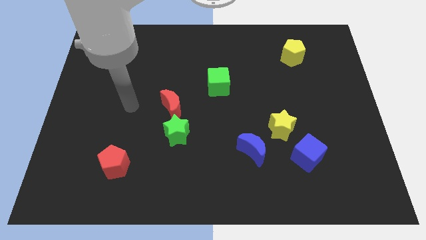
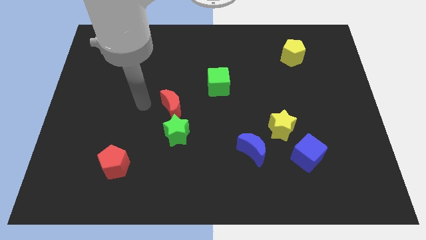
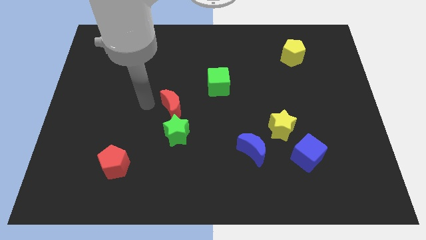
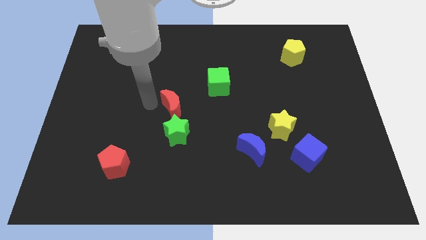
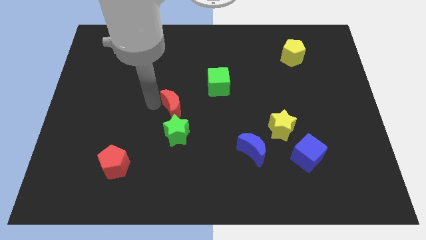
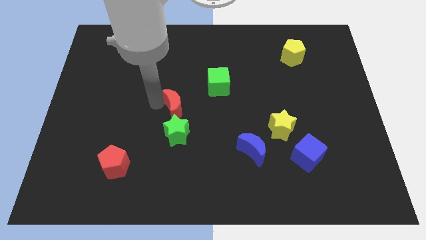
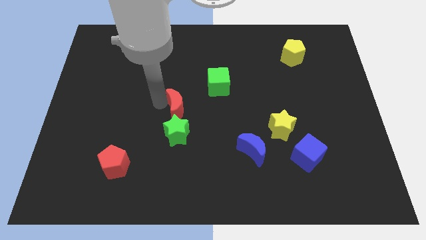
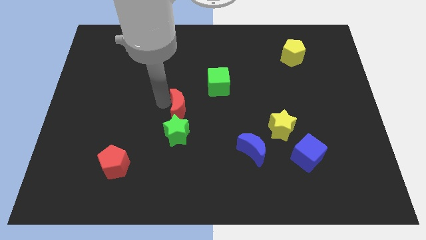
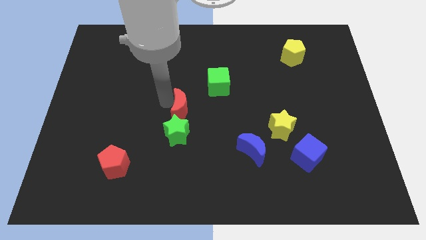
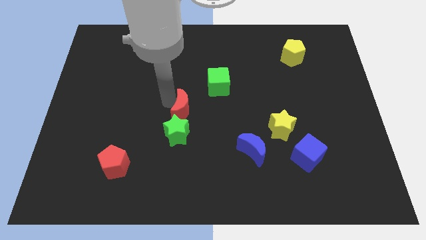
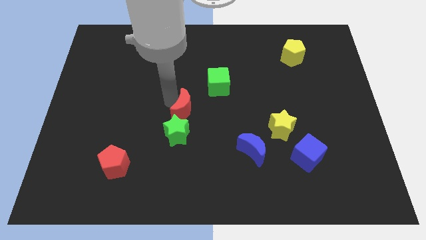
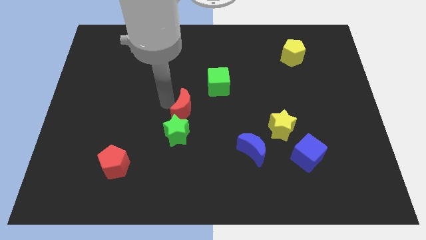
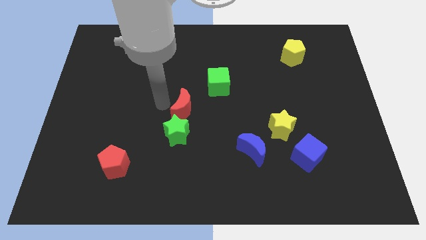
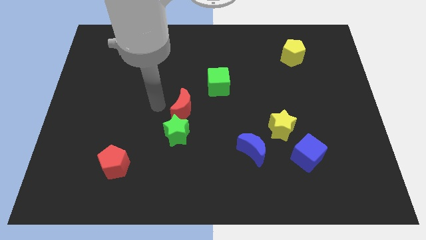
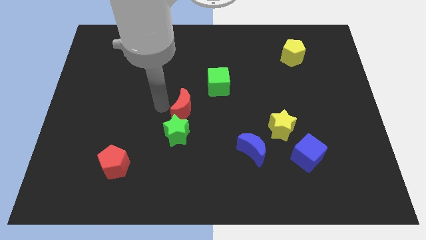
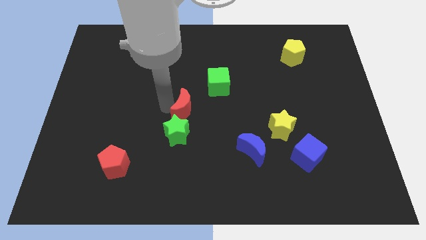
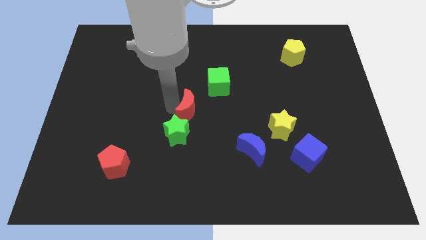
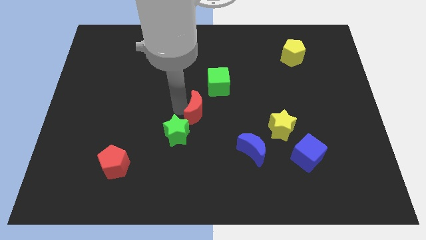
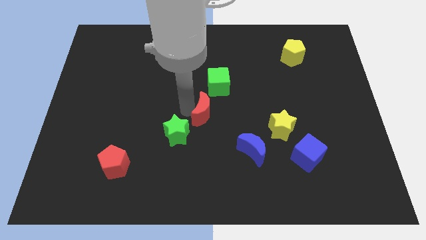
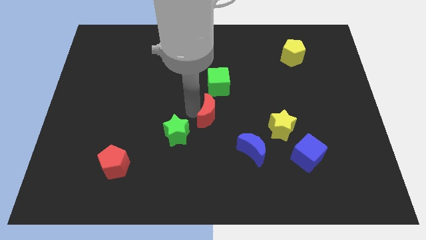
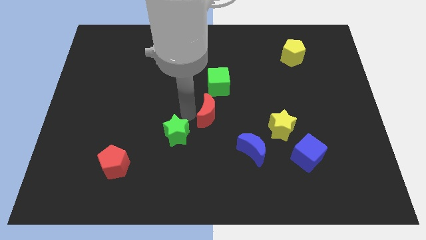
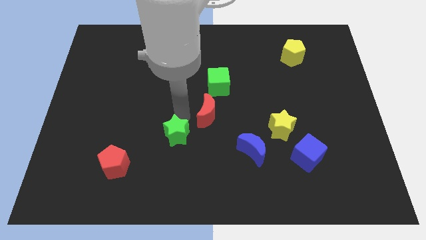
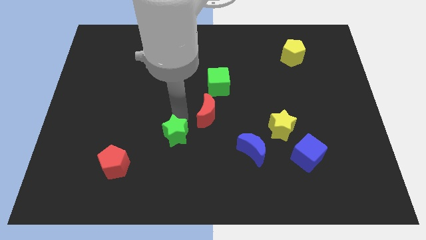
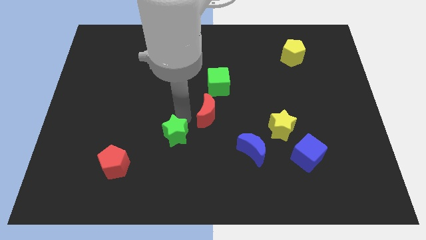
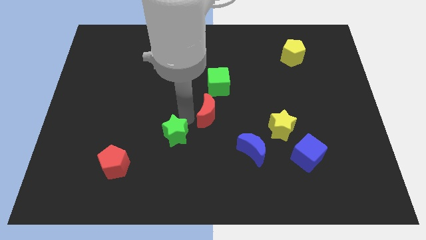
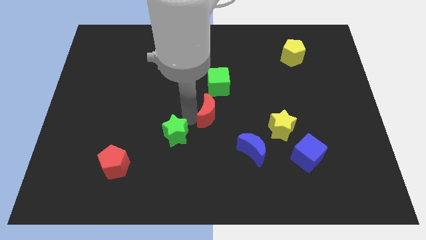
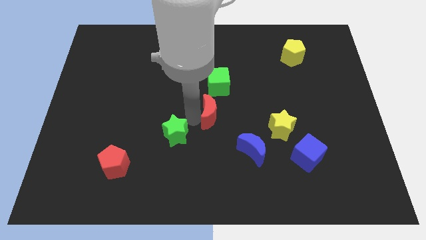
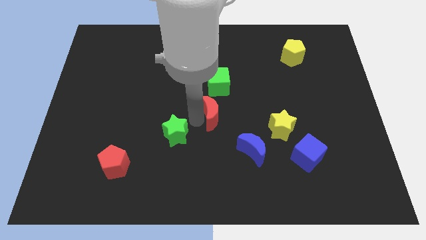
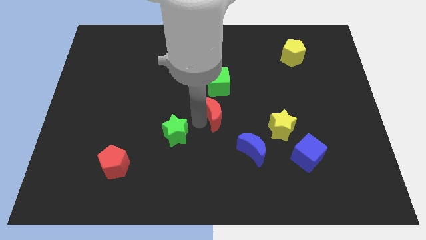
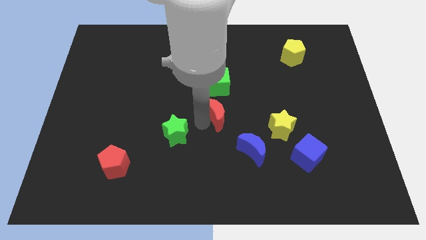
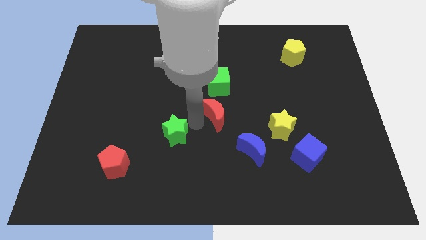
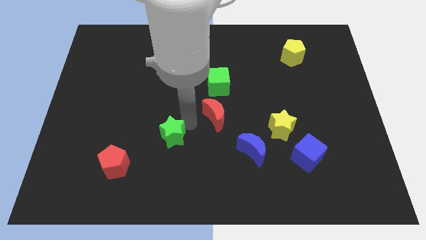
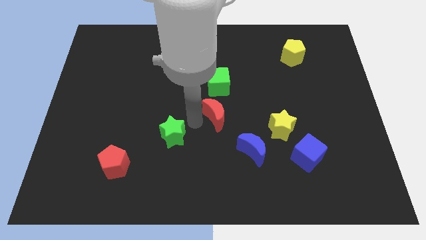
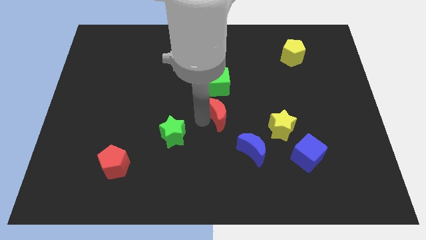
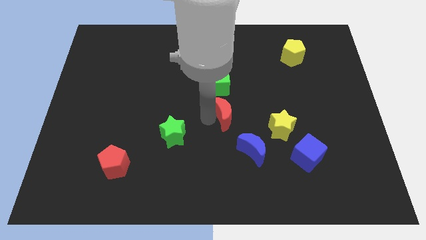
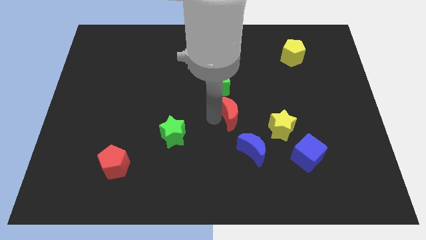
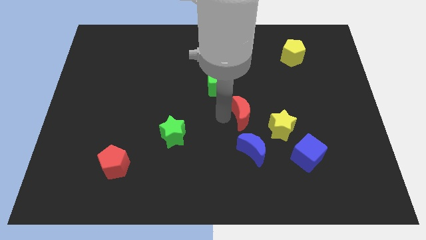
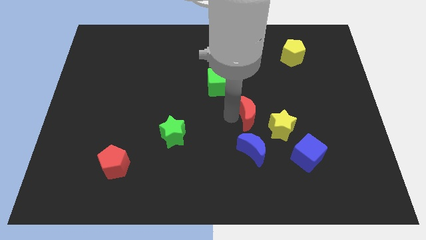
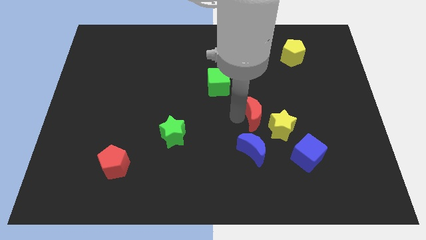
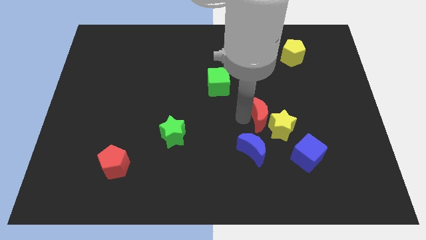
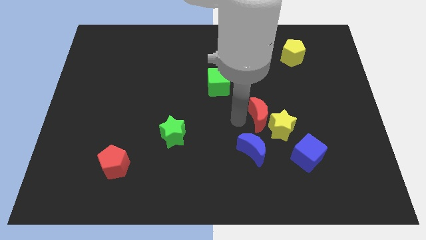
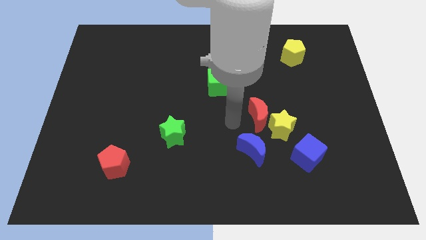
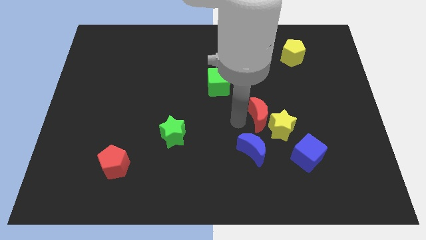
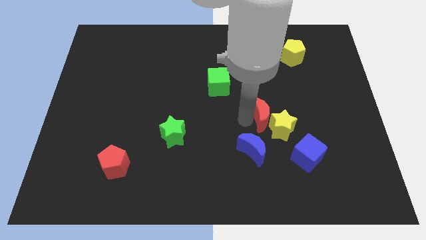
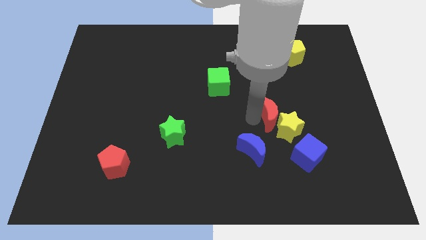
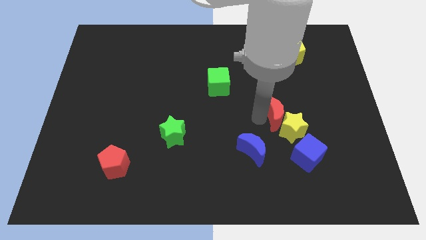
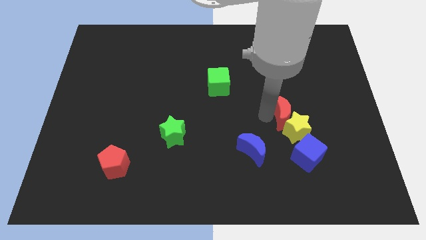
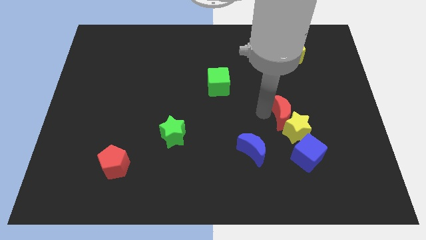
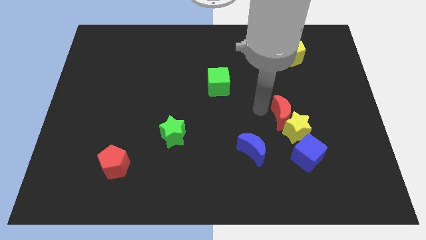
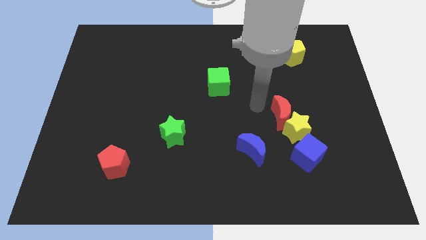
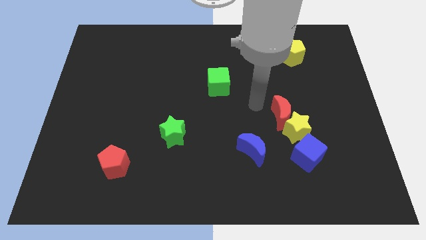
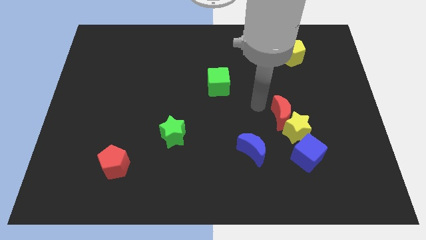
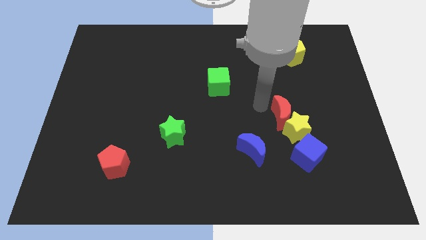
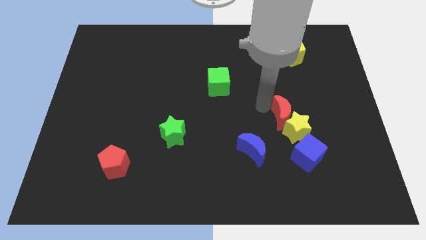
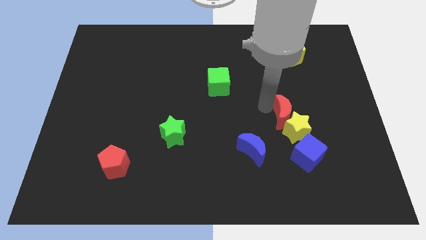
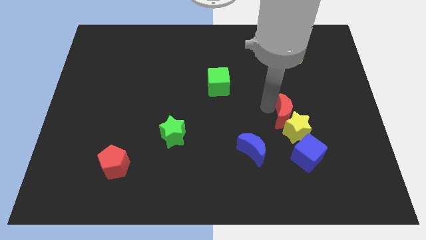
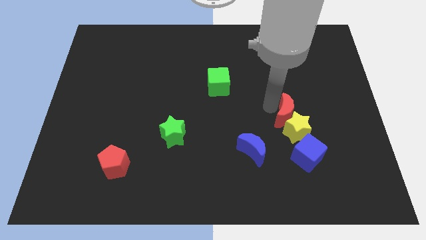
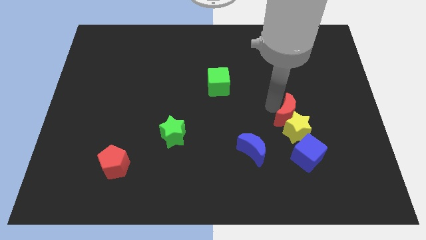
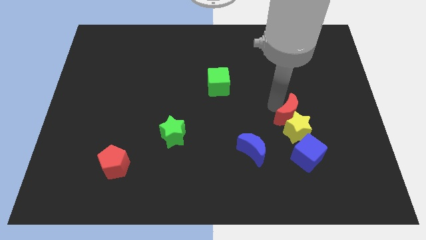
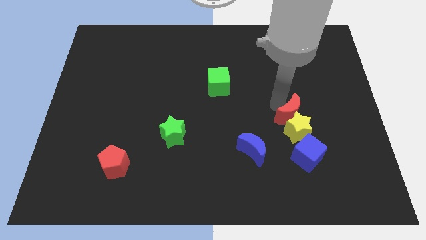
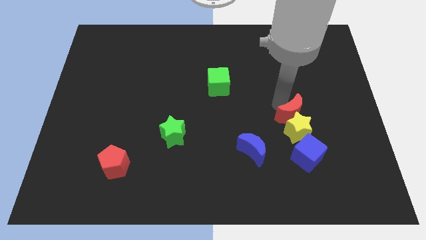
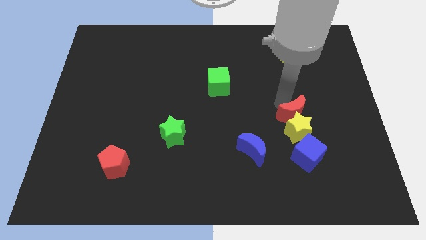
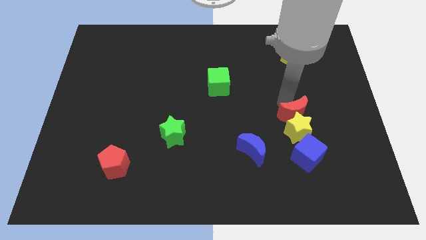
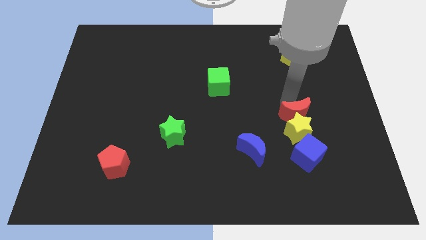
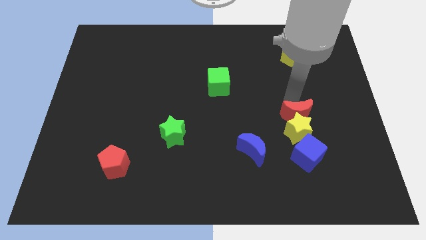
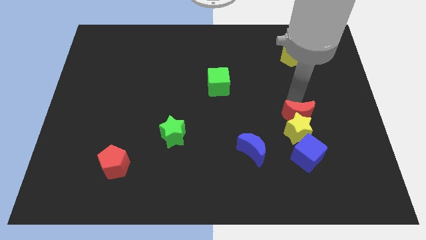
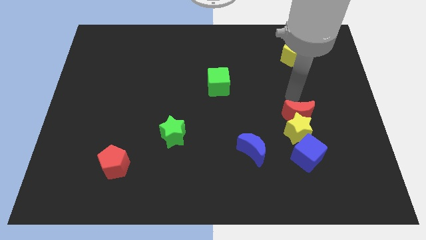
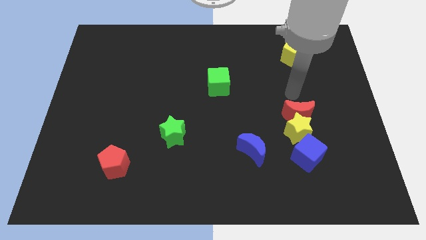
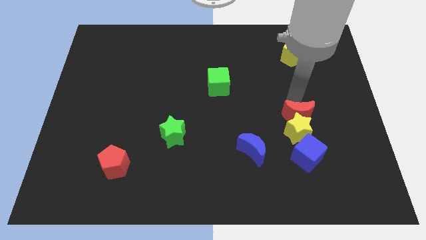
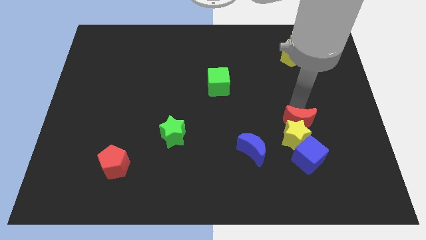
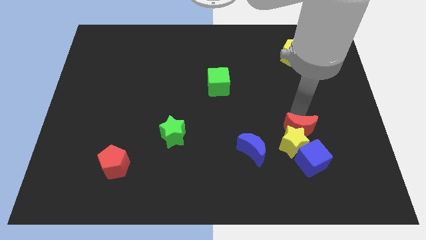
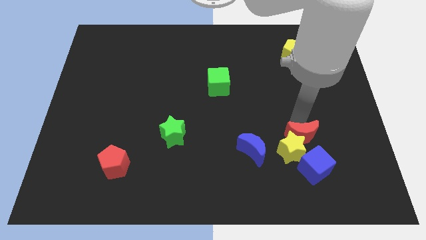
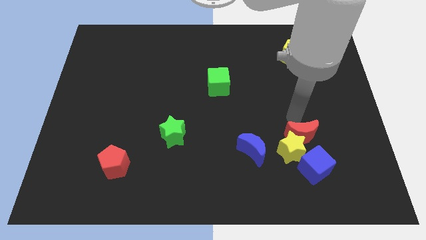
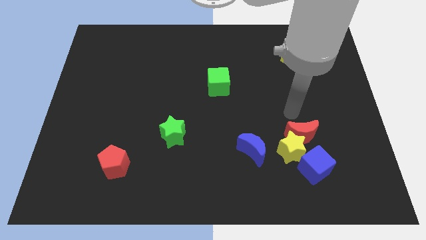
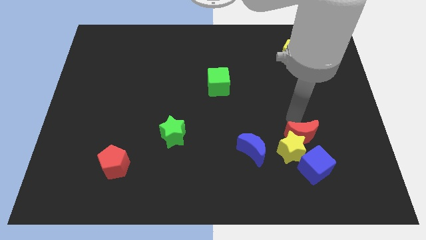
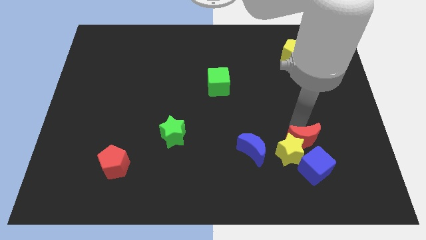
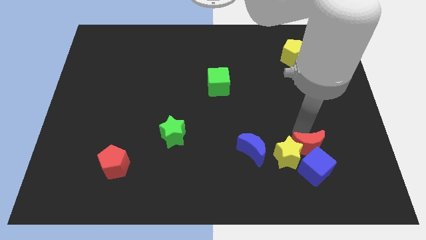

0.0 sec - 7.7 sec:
move the red moon next to the blue cube
